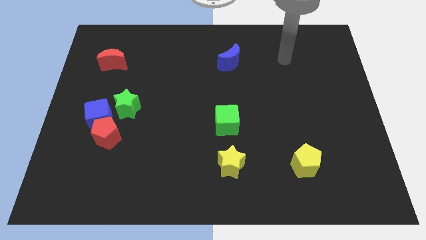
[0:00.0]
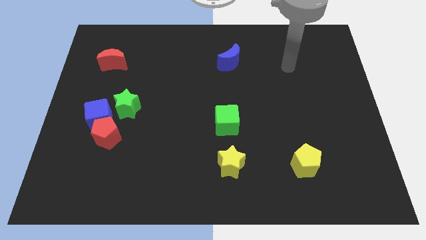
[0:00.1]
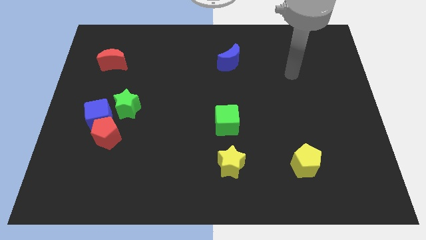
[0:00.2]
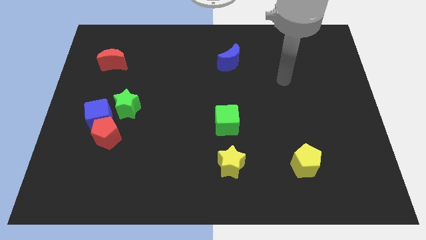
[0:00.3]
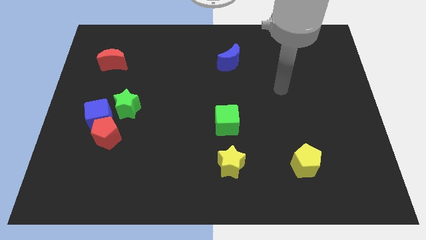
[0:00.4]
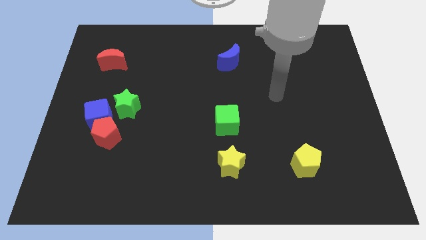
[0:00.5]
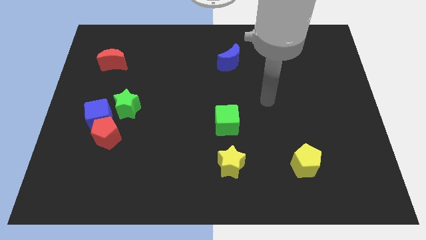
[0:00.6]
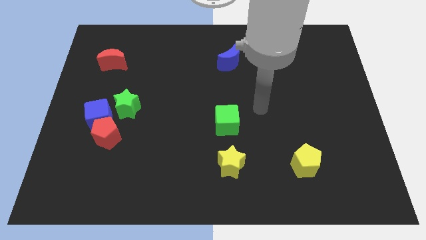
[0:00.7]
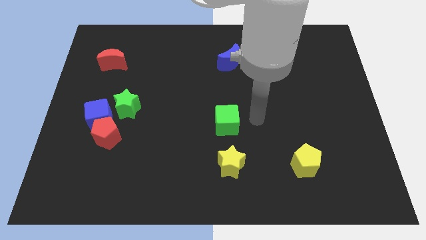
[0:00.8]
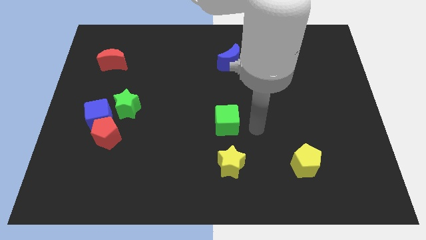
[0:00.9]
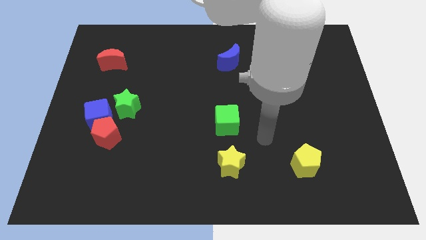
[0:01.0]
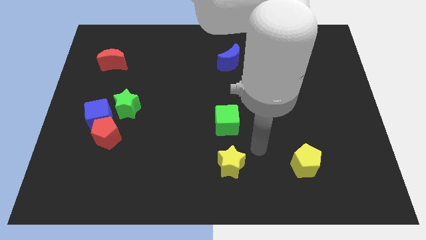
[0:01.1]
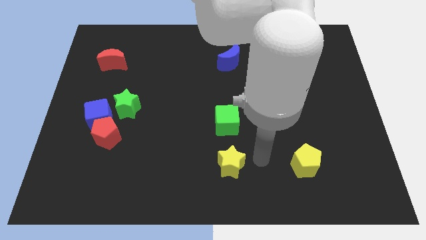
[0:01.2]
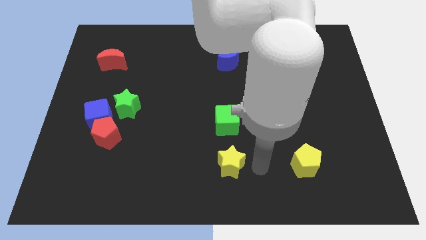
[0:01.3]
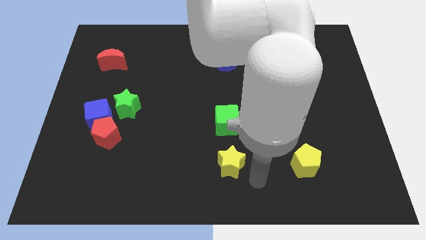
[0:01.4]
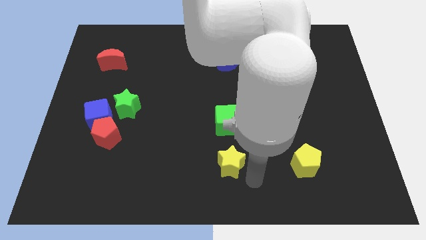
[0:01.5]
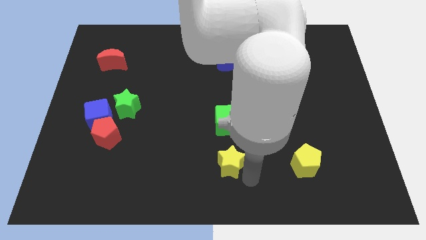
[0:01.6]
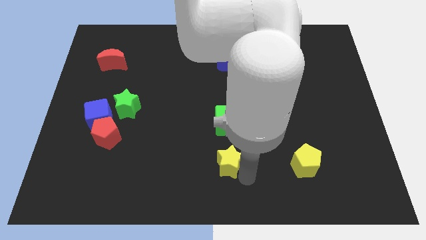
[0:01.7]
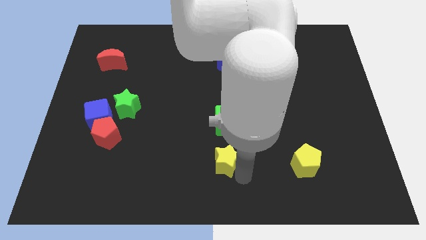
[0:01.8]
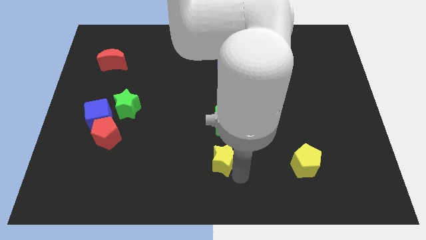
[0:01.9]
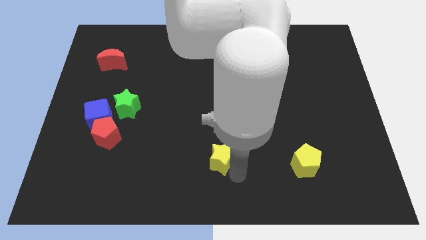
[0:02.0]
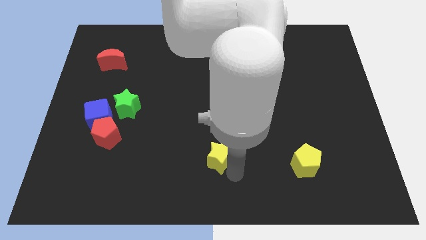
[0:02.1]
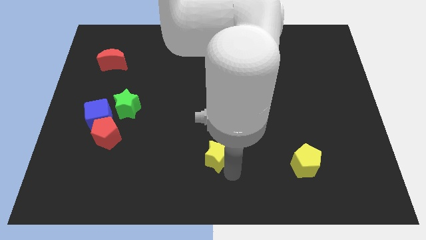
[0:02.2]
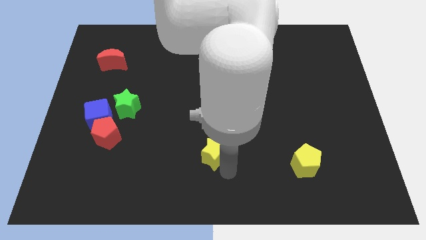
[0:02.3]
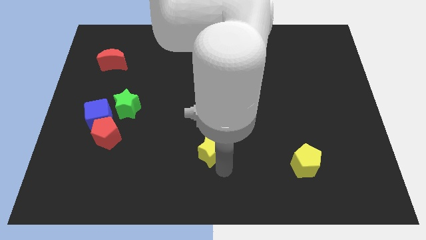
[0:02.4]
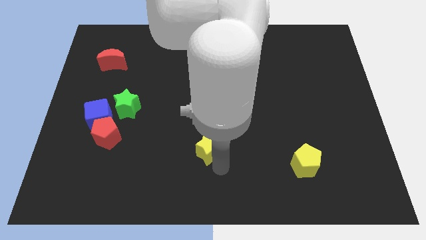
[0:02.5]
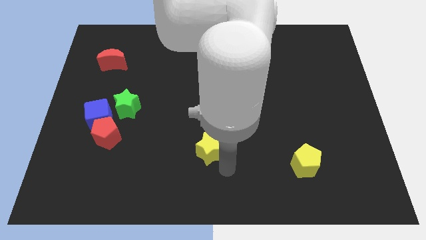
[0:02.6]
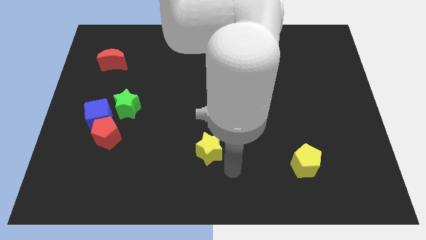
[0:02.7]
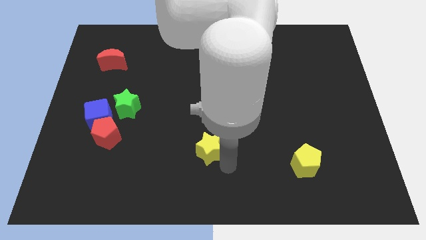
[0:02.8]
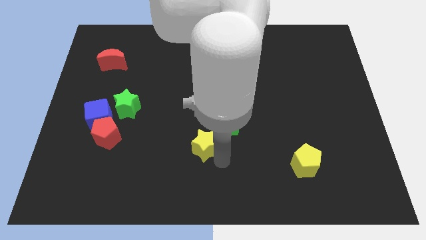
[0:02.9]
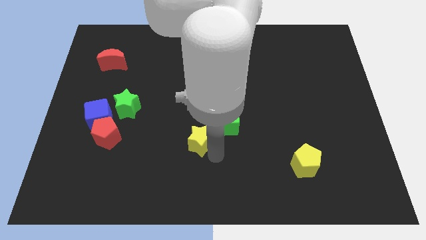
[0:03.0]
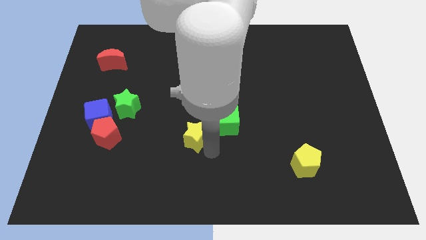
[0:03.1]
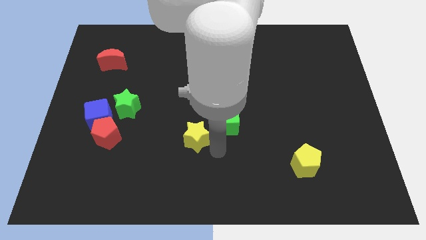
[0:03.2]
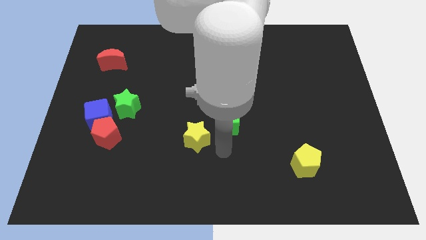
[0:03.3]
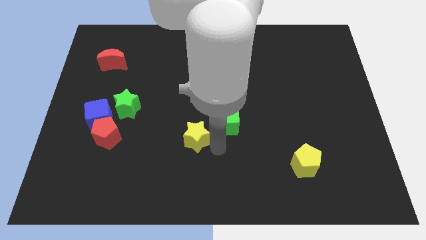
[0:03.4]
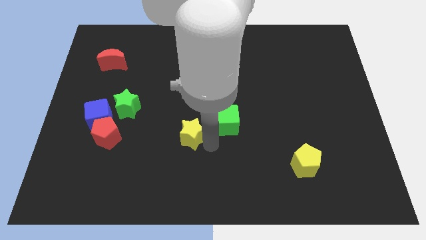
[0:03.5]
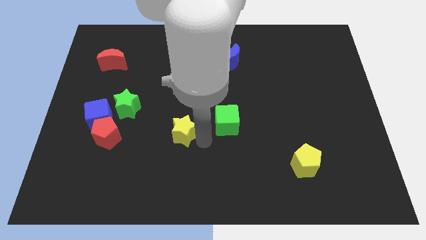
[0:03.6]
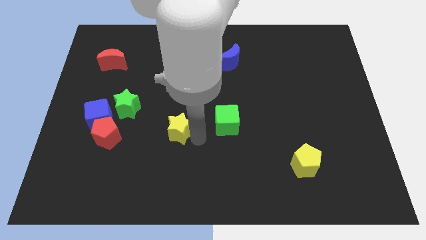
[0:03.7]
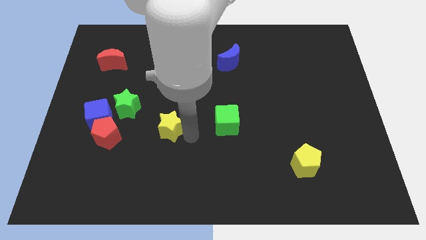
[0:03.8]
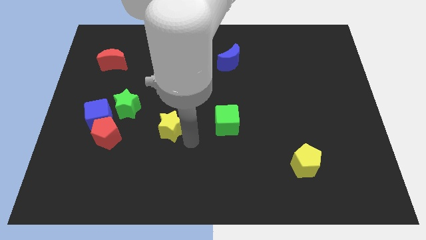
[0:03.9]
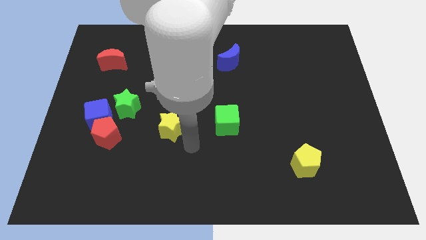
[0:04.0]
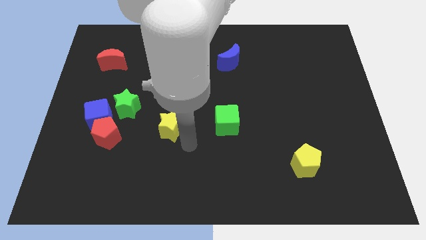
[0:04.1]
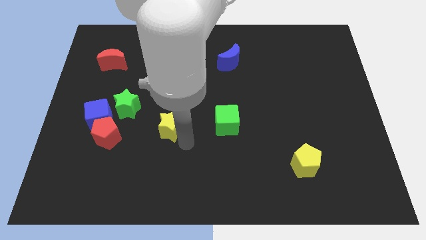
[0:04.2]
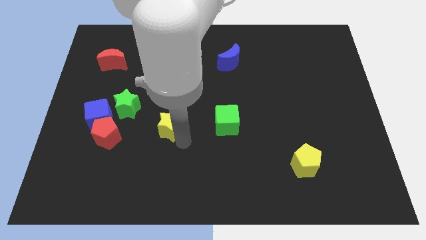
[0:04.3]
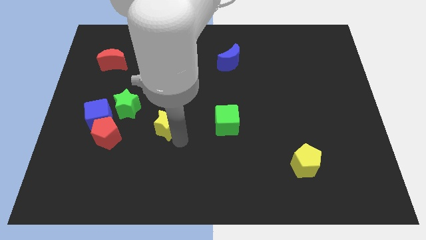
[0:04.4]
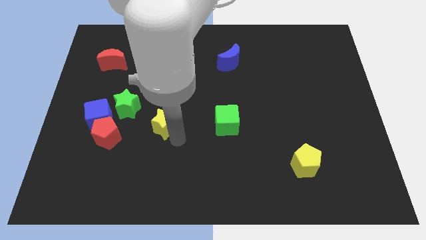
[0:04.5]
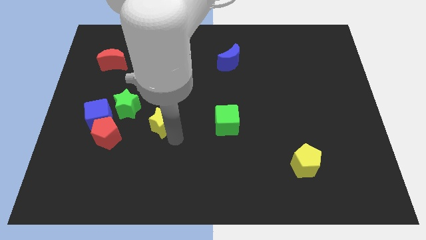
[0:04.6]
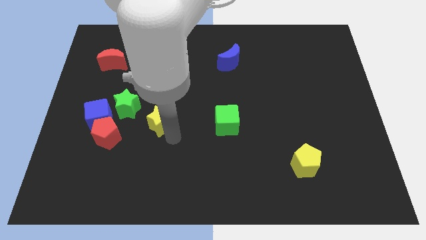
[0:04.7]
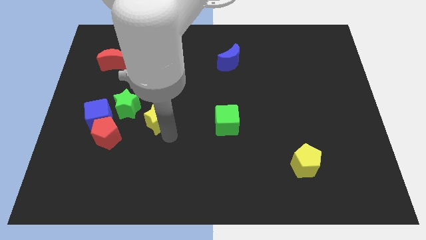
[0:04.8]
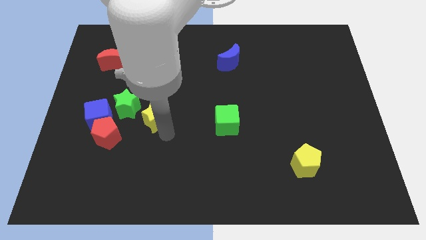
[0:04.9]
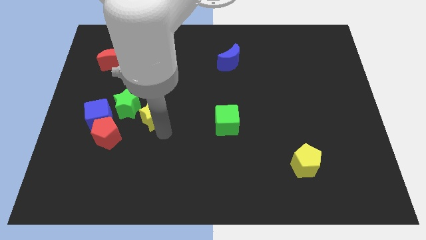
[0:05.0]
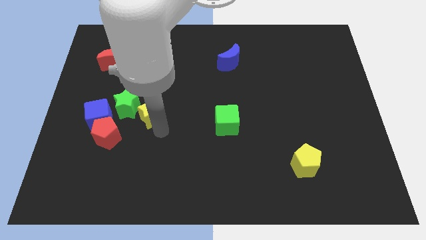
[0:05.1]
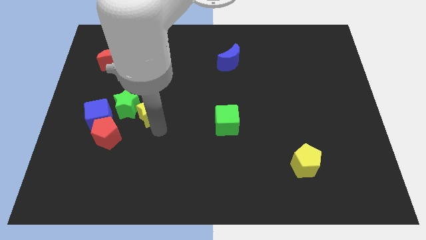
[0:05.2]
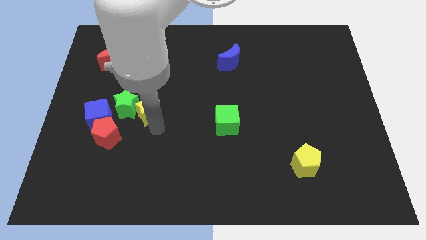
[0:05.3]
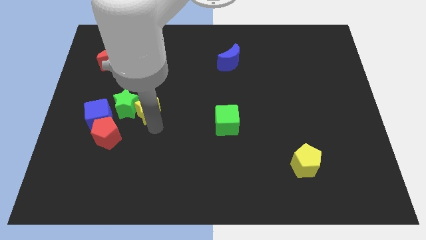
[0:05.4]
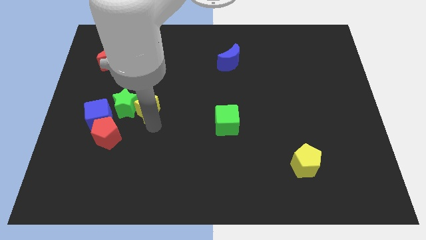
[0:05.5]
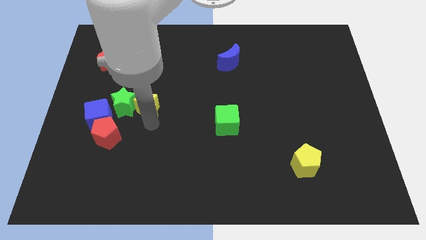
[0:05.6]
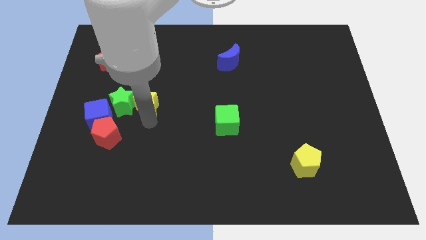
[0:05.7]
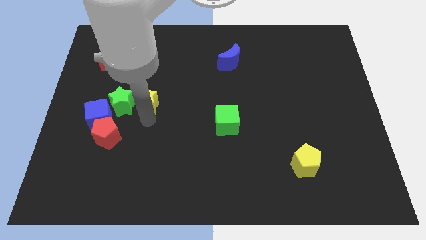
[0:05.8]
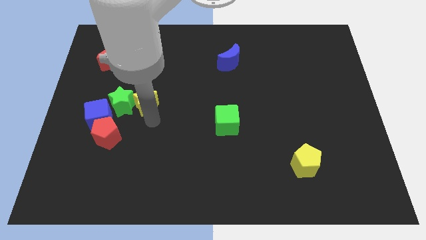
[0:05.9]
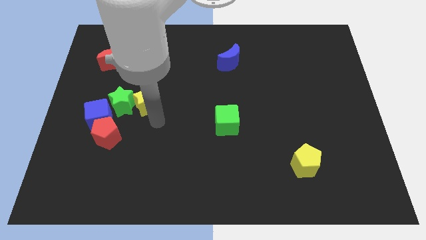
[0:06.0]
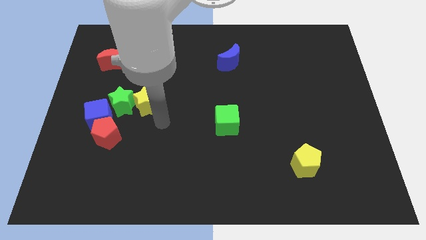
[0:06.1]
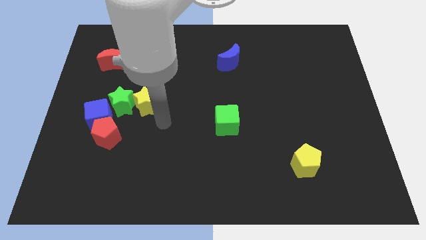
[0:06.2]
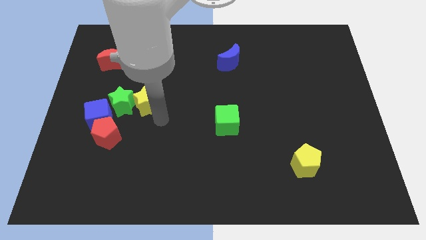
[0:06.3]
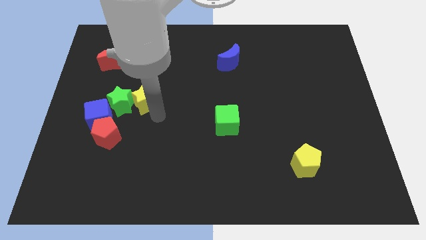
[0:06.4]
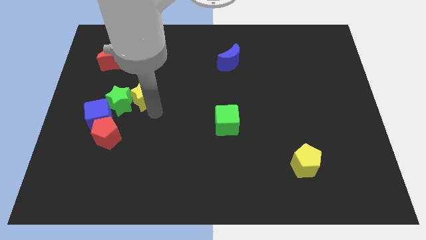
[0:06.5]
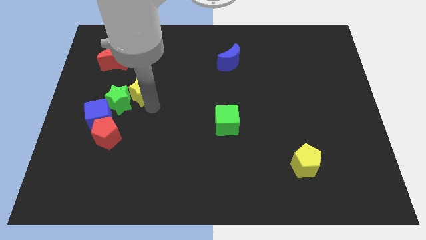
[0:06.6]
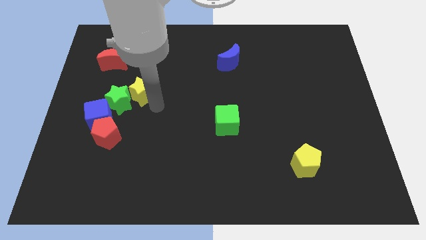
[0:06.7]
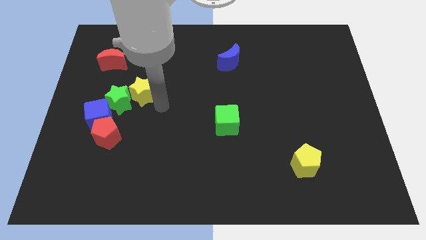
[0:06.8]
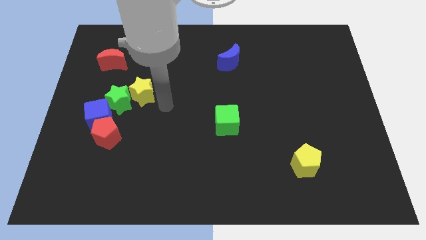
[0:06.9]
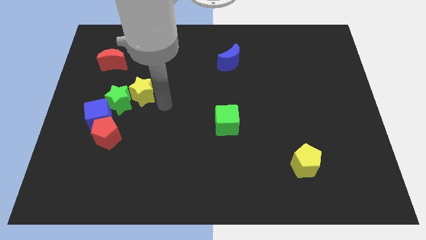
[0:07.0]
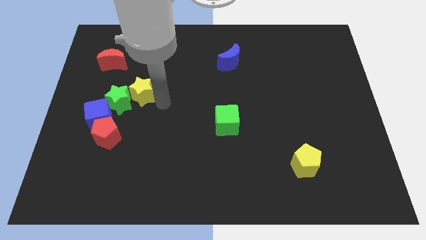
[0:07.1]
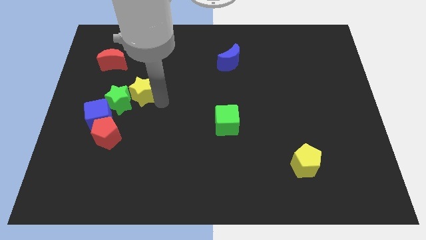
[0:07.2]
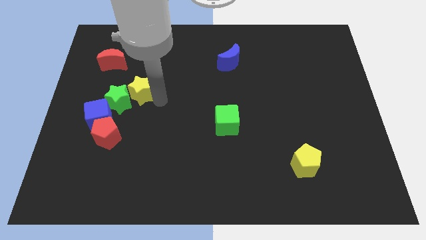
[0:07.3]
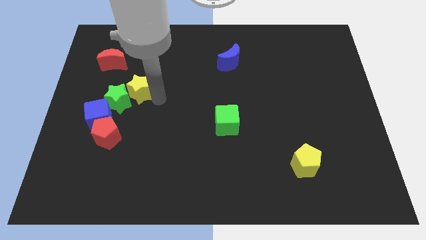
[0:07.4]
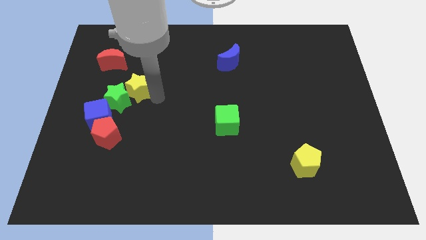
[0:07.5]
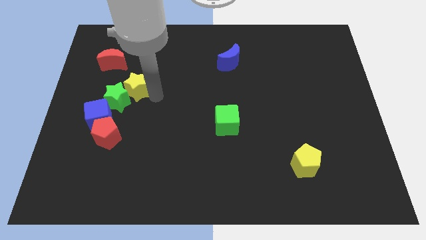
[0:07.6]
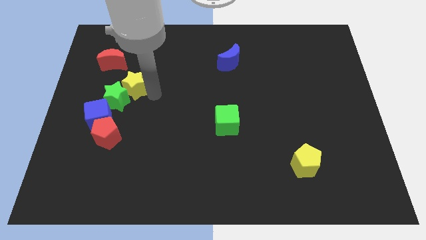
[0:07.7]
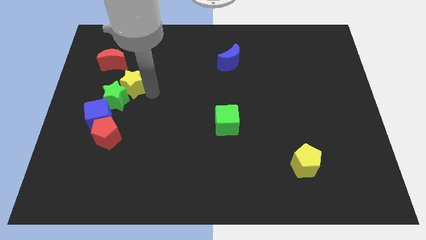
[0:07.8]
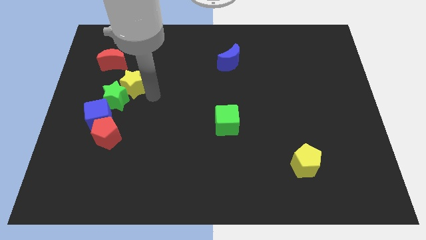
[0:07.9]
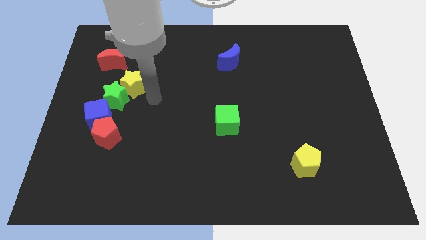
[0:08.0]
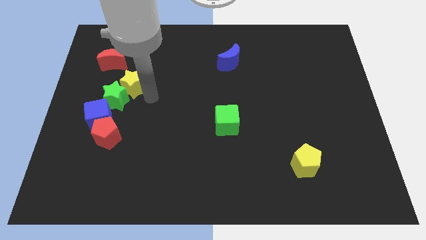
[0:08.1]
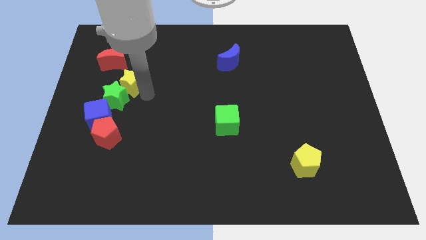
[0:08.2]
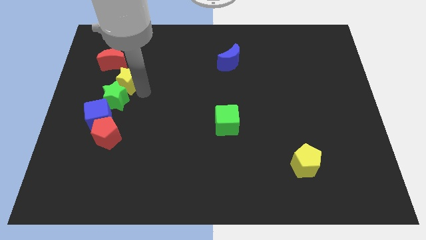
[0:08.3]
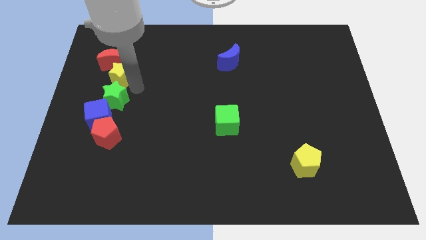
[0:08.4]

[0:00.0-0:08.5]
put the yellow star close to the red moon
